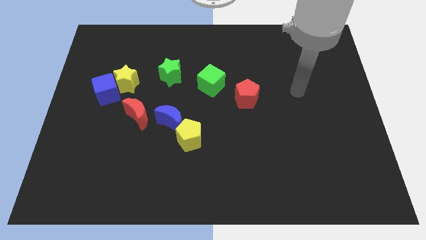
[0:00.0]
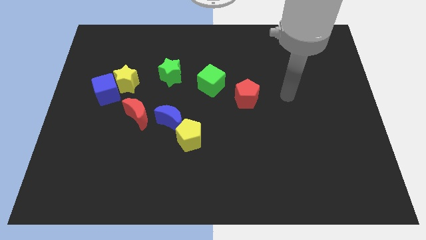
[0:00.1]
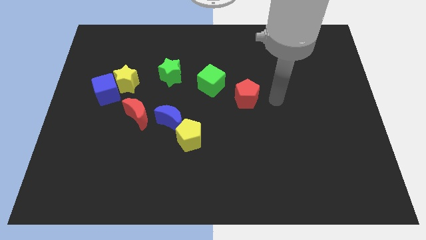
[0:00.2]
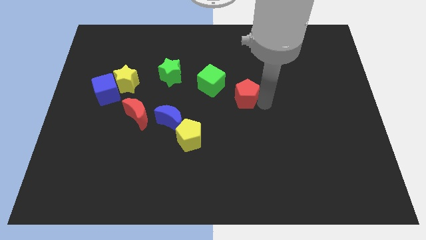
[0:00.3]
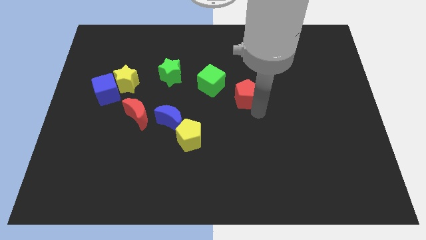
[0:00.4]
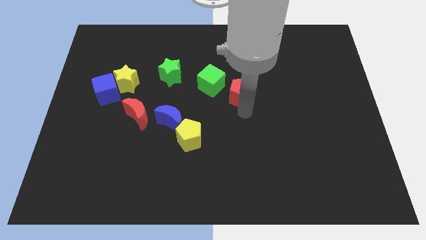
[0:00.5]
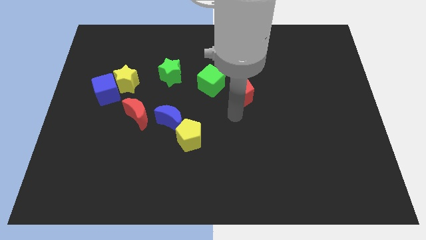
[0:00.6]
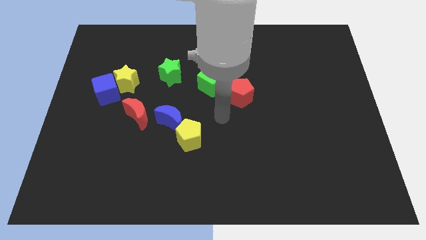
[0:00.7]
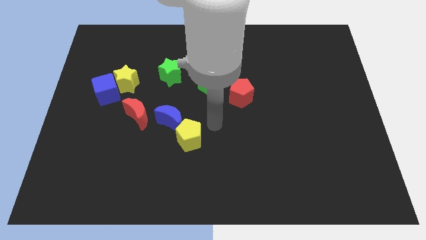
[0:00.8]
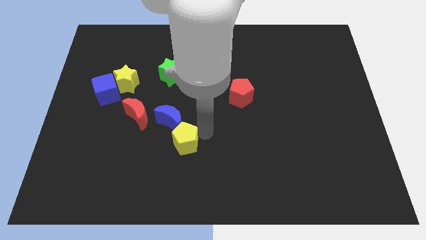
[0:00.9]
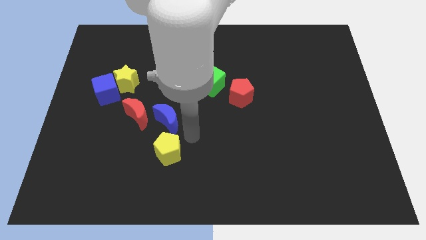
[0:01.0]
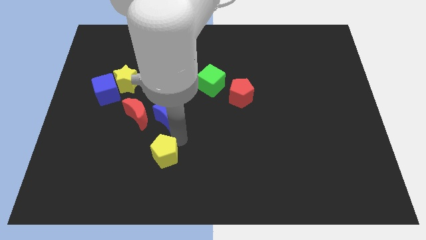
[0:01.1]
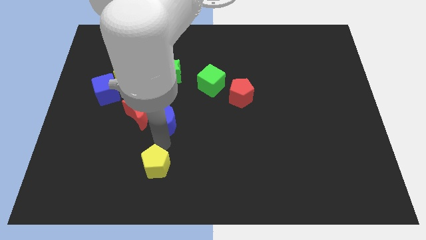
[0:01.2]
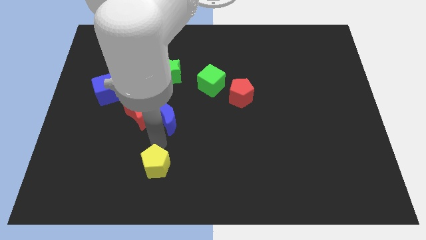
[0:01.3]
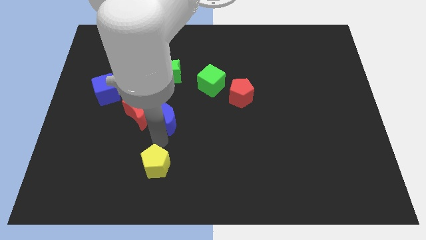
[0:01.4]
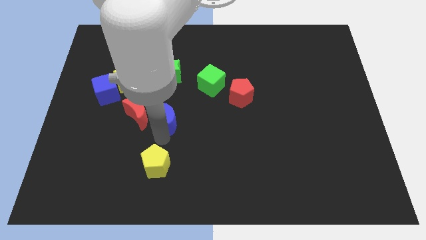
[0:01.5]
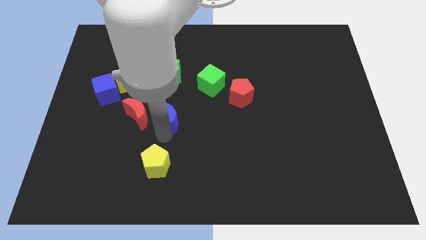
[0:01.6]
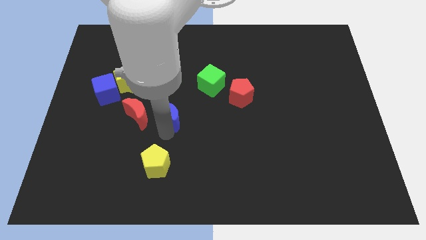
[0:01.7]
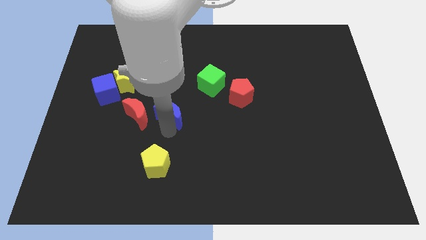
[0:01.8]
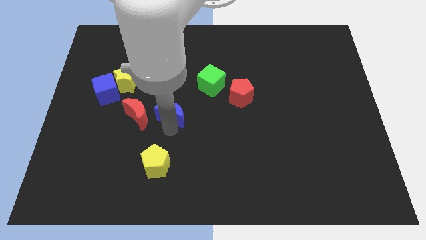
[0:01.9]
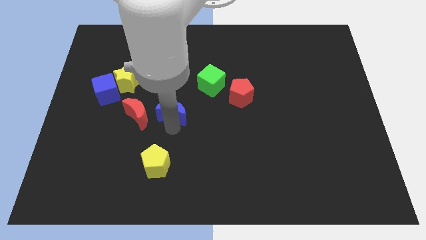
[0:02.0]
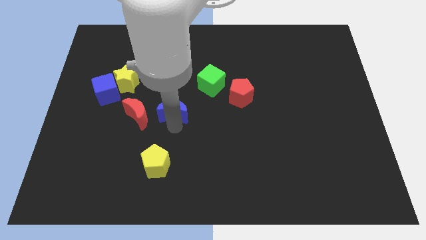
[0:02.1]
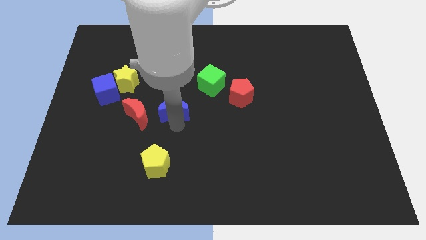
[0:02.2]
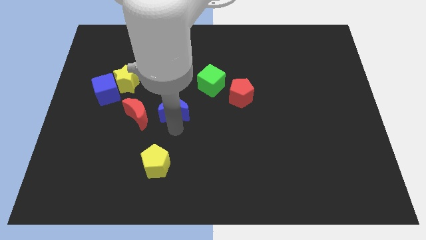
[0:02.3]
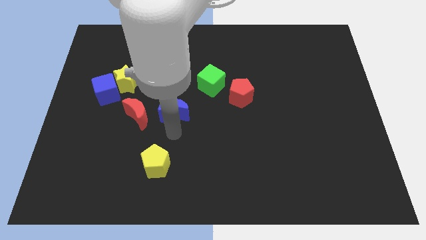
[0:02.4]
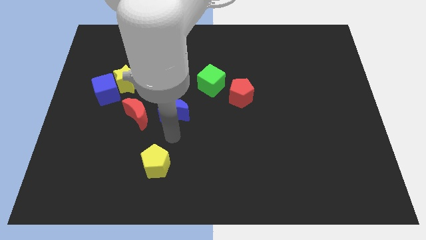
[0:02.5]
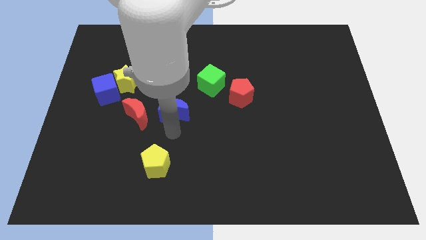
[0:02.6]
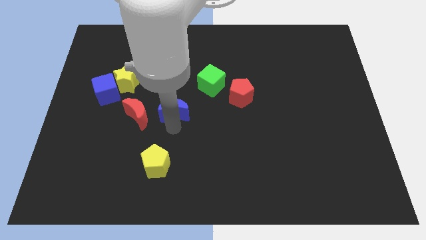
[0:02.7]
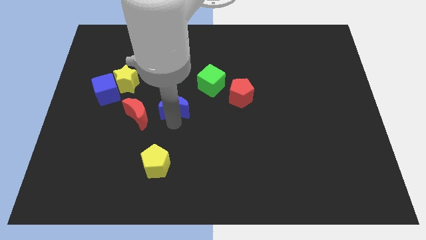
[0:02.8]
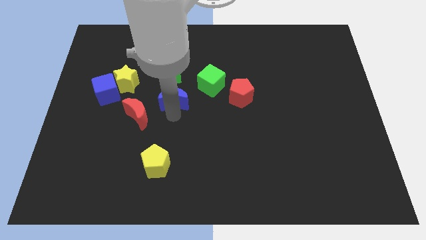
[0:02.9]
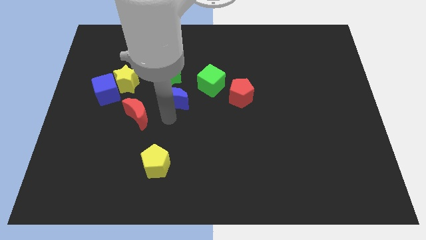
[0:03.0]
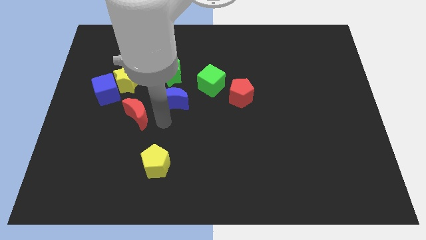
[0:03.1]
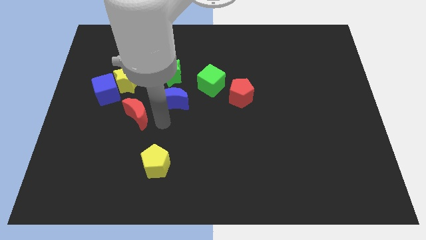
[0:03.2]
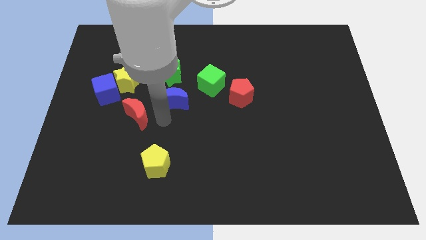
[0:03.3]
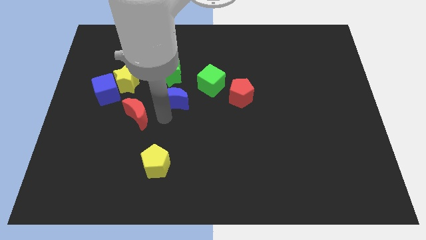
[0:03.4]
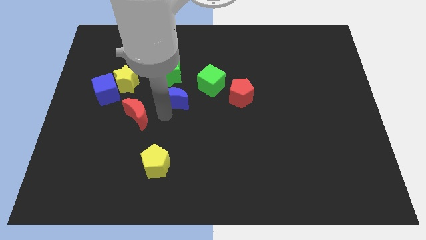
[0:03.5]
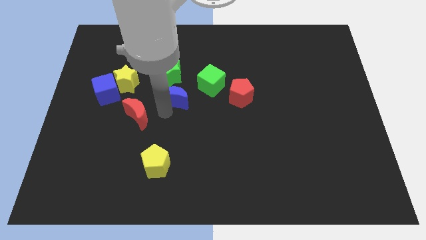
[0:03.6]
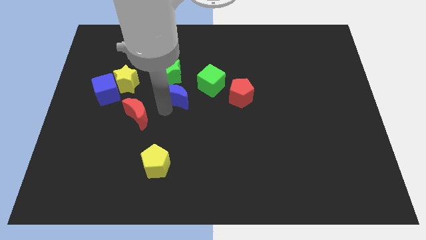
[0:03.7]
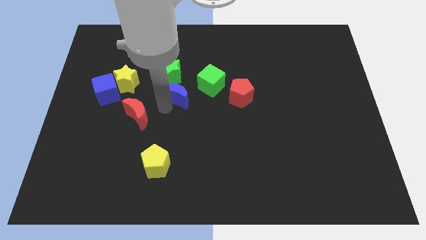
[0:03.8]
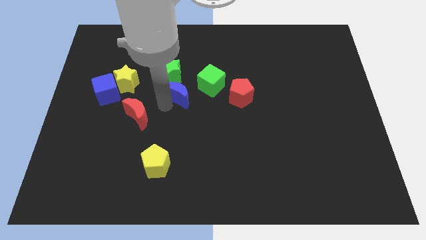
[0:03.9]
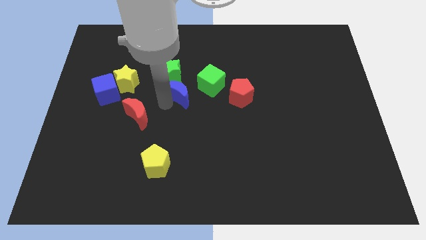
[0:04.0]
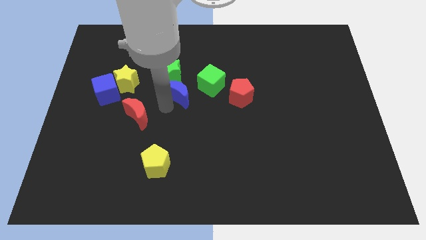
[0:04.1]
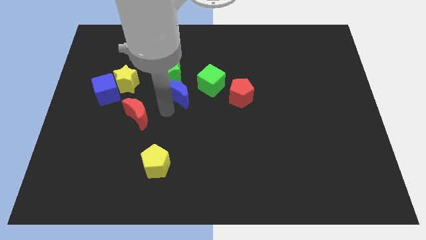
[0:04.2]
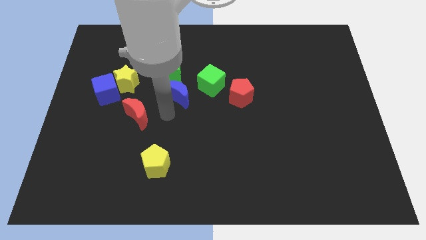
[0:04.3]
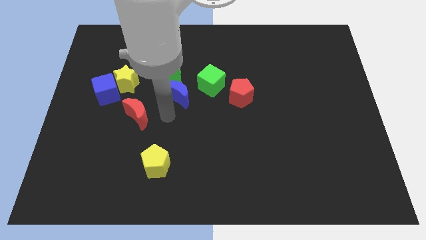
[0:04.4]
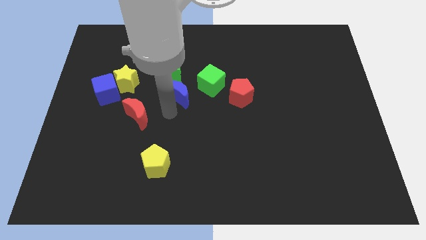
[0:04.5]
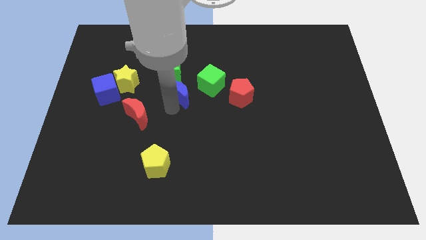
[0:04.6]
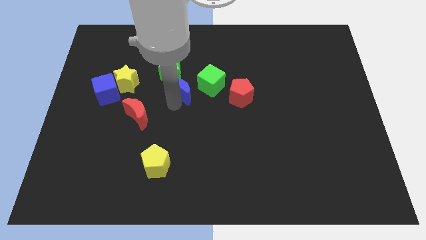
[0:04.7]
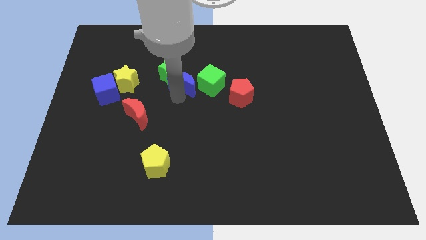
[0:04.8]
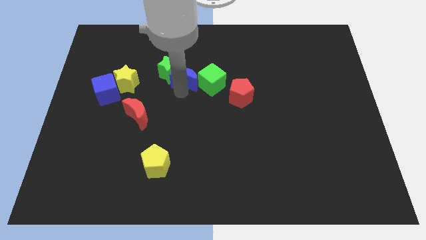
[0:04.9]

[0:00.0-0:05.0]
move the blue moon to the top left of the green cube
